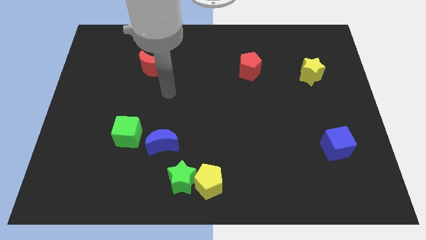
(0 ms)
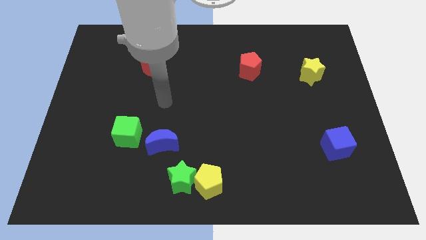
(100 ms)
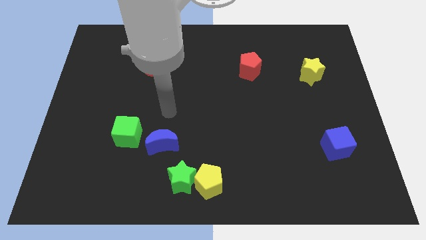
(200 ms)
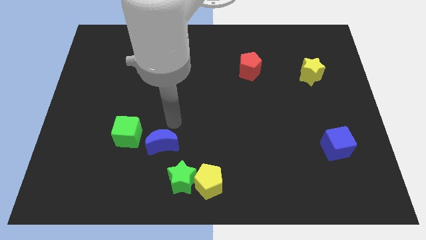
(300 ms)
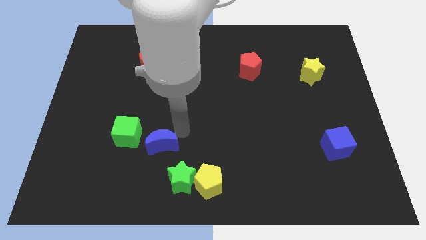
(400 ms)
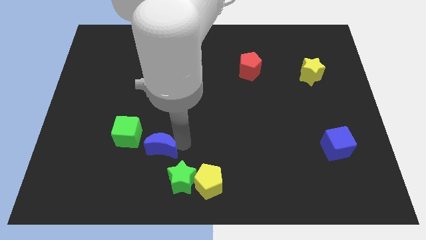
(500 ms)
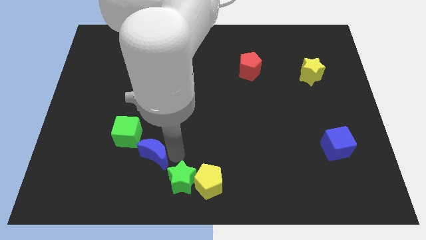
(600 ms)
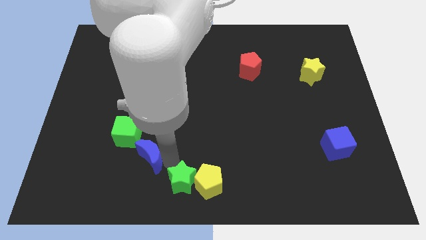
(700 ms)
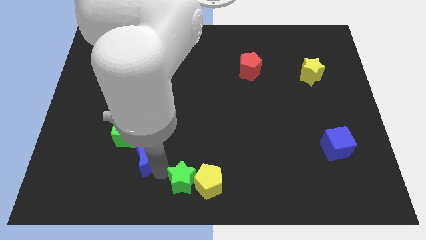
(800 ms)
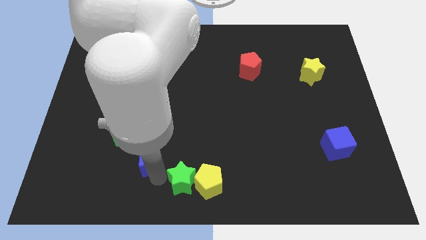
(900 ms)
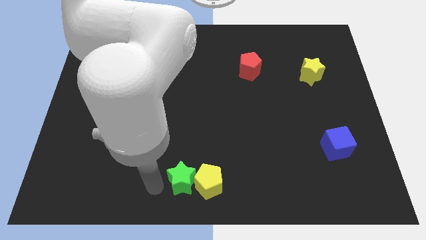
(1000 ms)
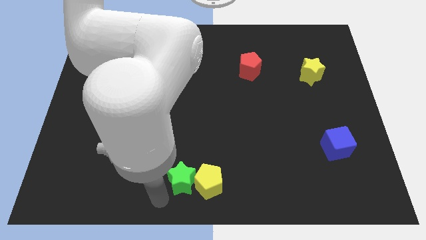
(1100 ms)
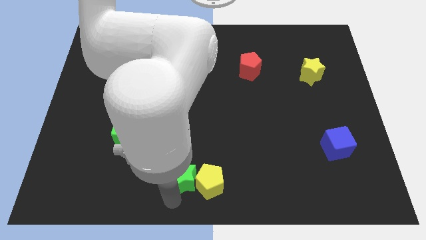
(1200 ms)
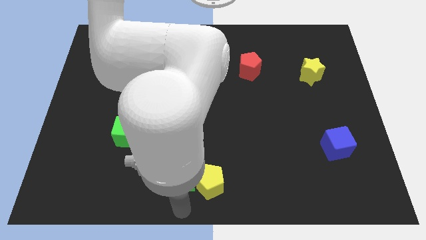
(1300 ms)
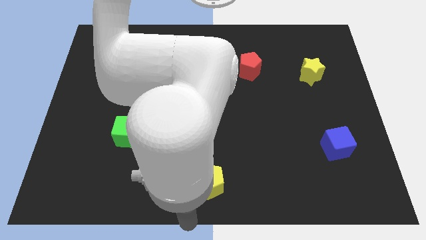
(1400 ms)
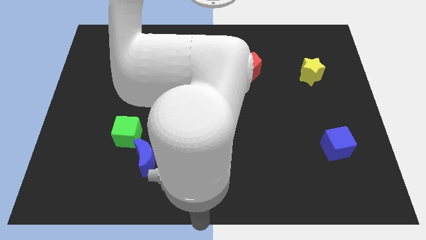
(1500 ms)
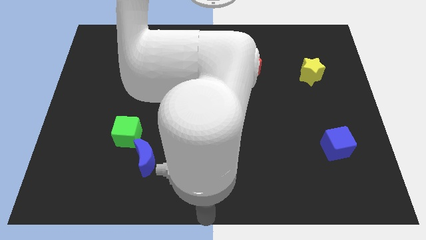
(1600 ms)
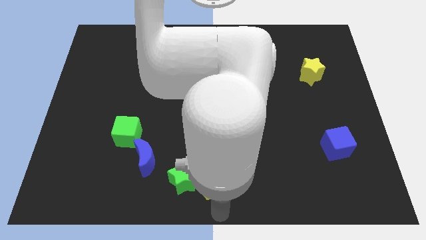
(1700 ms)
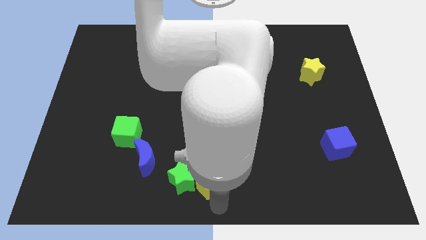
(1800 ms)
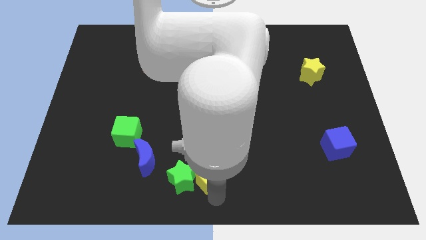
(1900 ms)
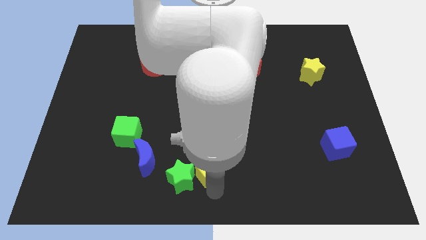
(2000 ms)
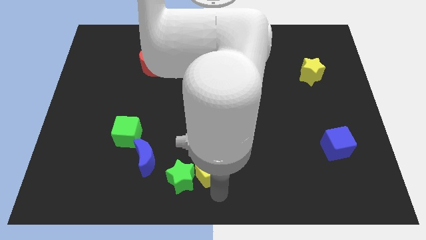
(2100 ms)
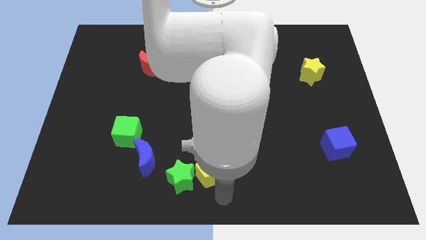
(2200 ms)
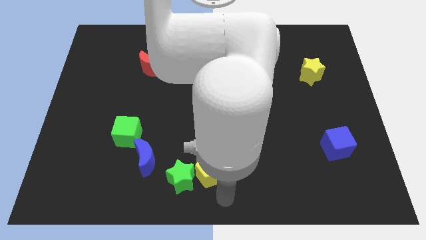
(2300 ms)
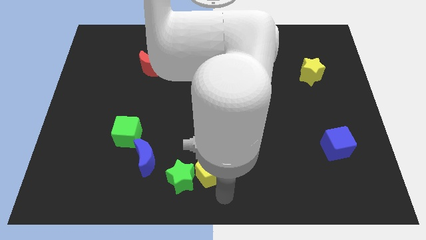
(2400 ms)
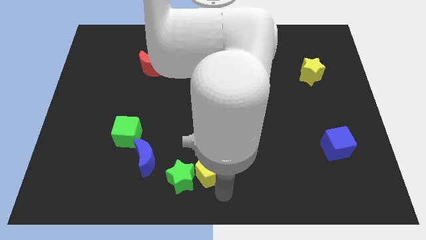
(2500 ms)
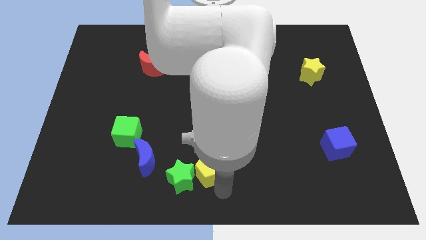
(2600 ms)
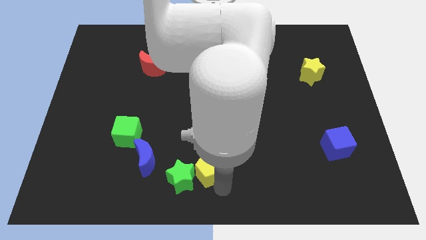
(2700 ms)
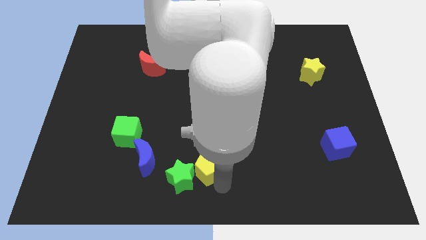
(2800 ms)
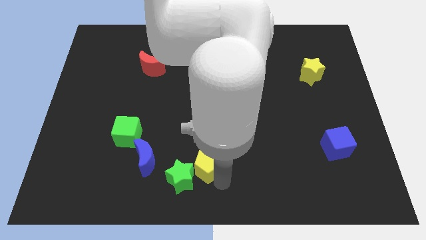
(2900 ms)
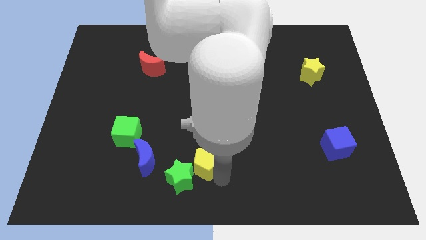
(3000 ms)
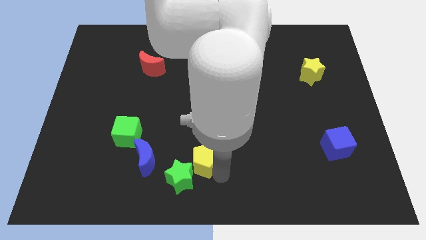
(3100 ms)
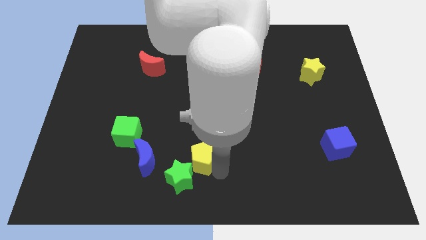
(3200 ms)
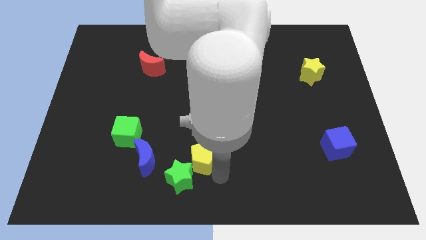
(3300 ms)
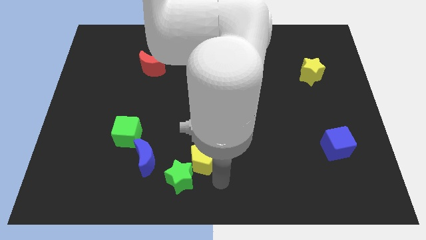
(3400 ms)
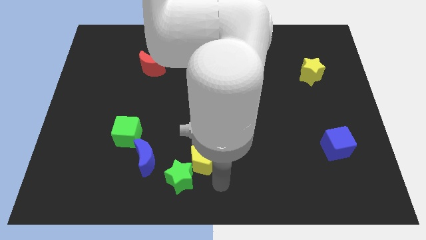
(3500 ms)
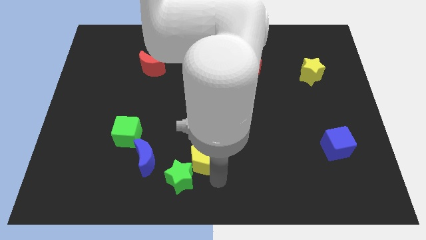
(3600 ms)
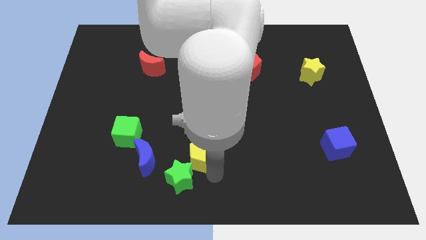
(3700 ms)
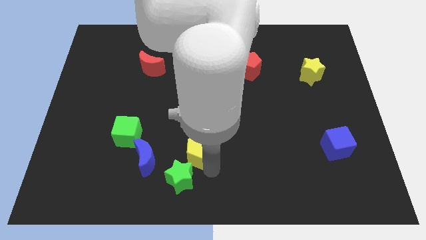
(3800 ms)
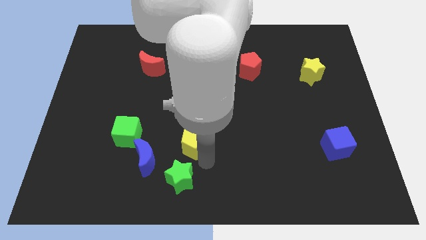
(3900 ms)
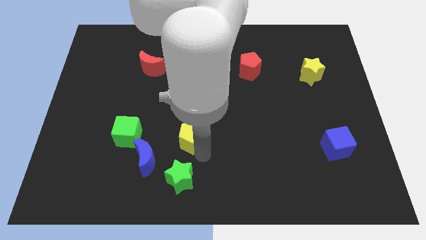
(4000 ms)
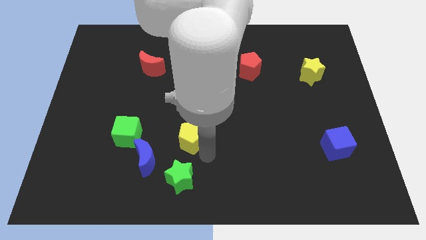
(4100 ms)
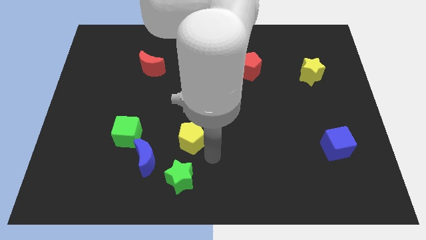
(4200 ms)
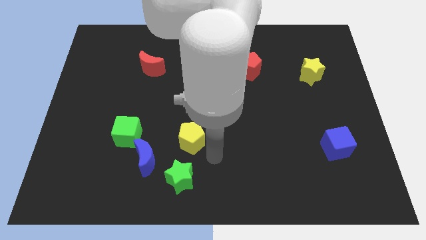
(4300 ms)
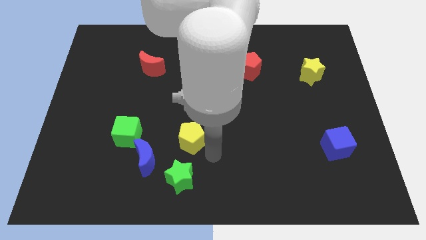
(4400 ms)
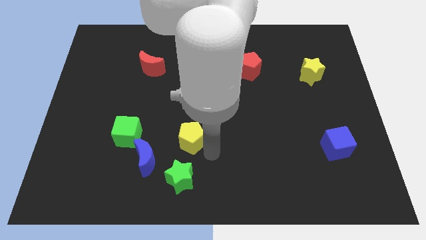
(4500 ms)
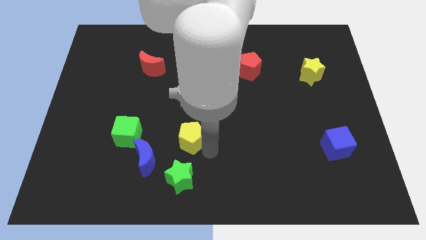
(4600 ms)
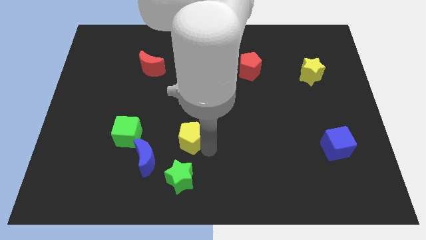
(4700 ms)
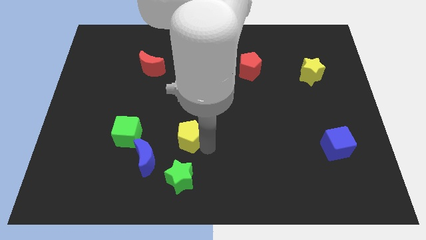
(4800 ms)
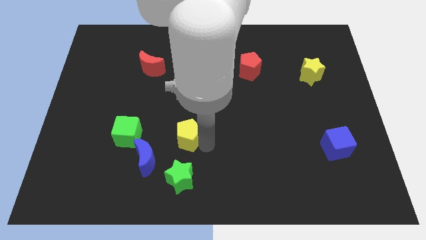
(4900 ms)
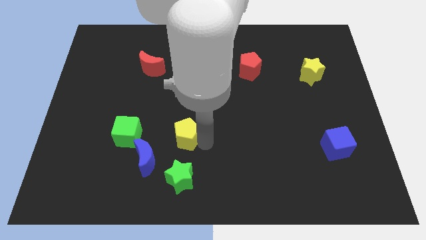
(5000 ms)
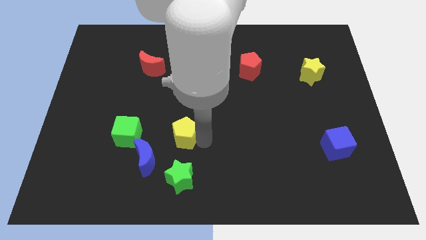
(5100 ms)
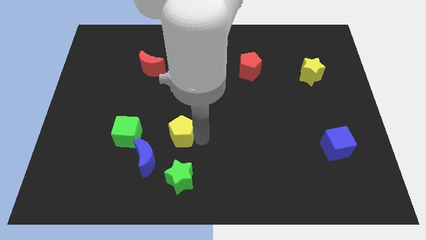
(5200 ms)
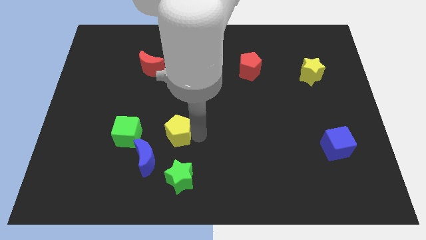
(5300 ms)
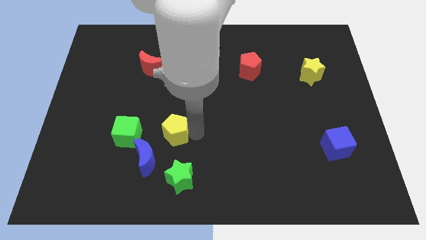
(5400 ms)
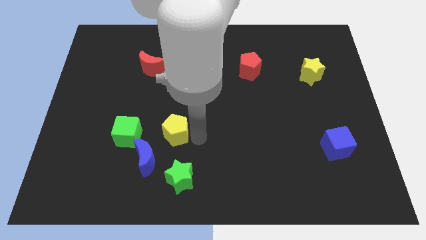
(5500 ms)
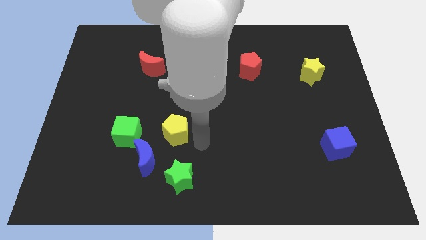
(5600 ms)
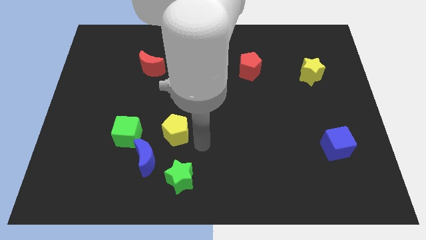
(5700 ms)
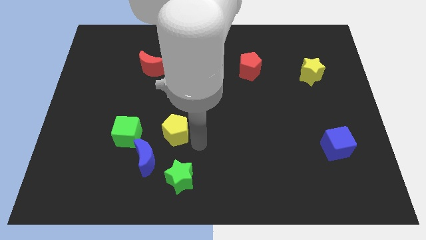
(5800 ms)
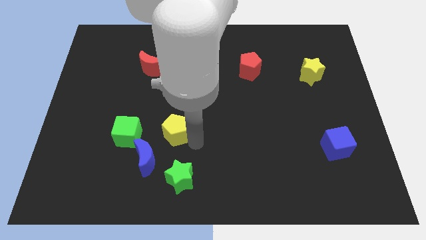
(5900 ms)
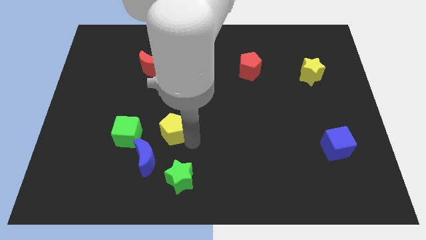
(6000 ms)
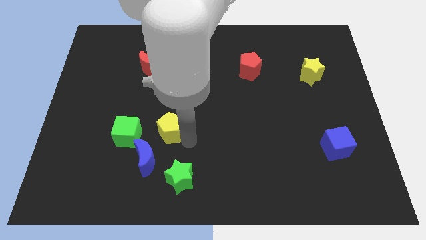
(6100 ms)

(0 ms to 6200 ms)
move the yellow pentagon above the blue moon

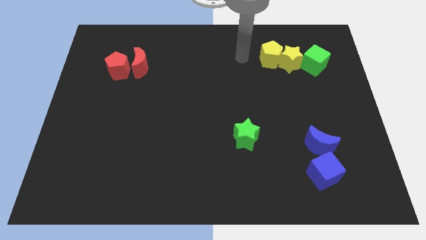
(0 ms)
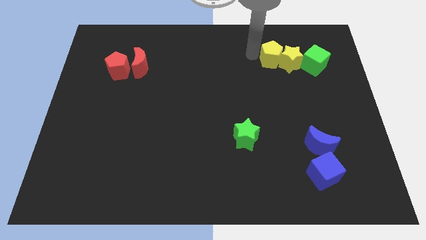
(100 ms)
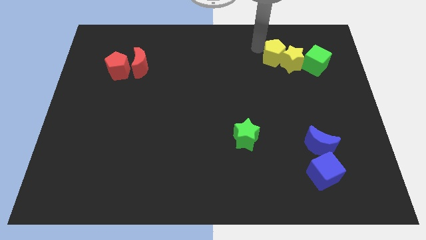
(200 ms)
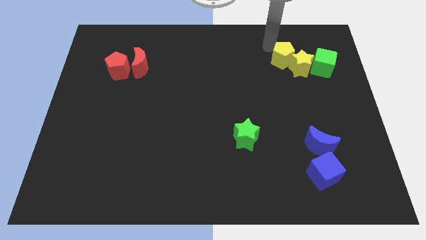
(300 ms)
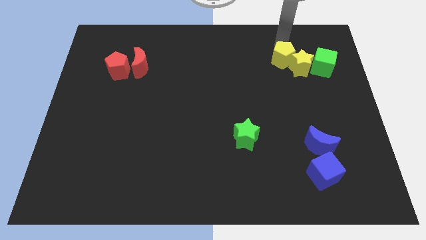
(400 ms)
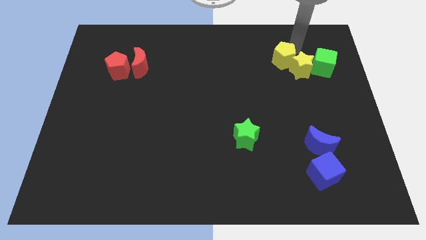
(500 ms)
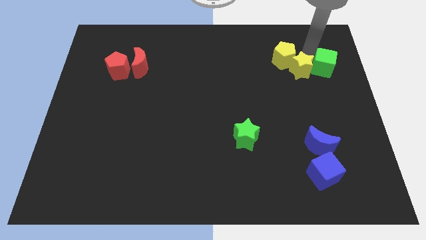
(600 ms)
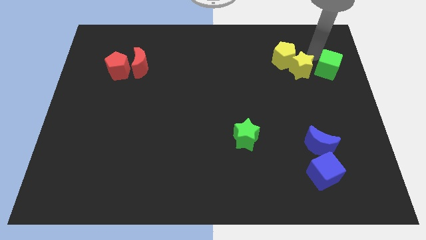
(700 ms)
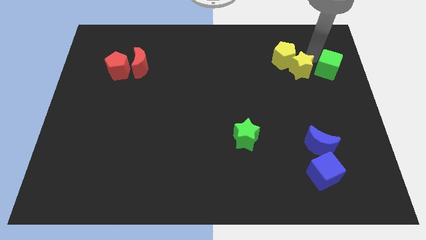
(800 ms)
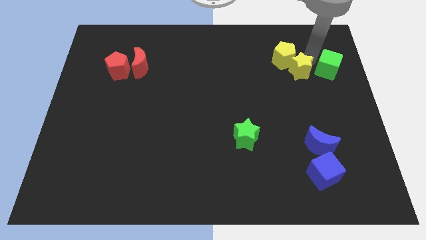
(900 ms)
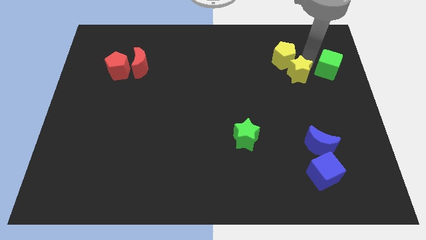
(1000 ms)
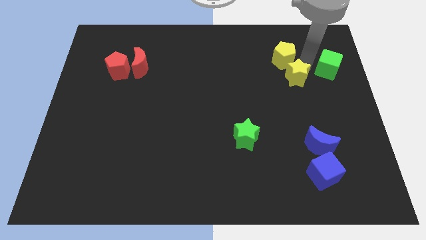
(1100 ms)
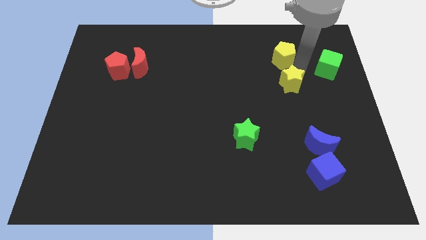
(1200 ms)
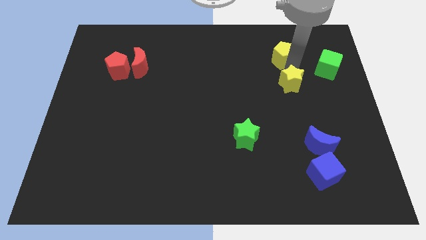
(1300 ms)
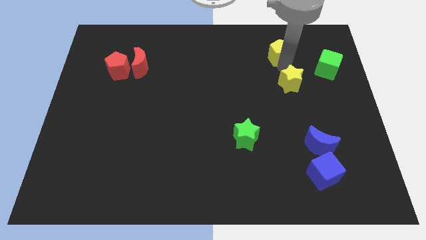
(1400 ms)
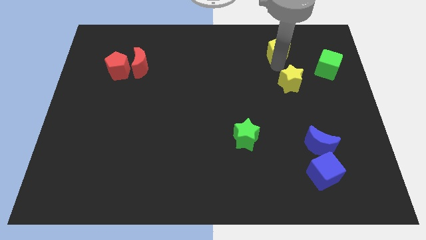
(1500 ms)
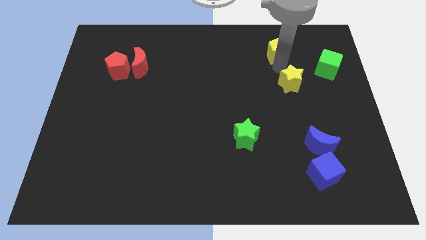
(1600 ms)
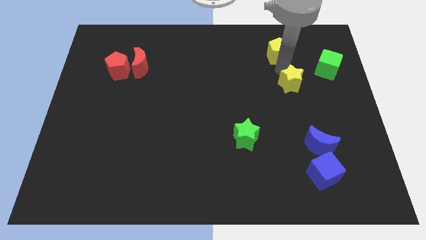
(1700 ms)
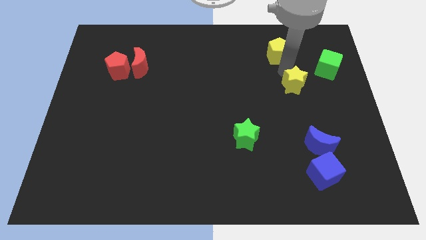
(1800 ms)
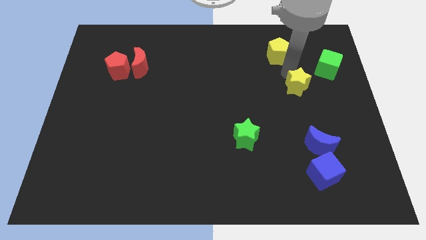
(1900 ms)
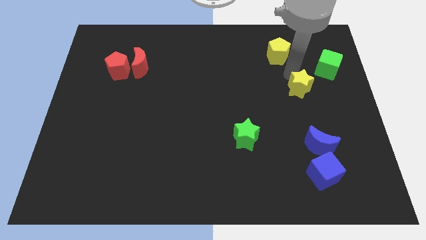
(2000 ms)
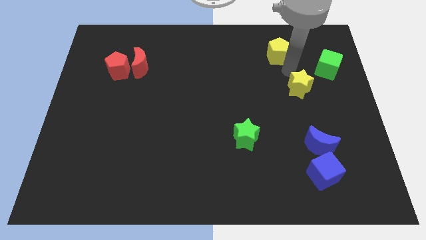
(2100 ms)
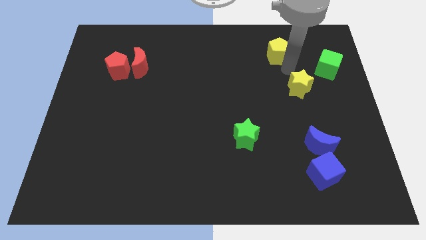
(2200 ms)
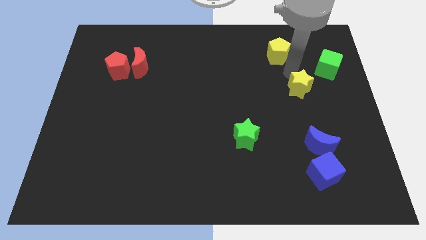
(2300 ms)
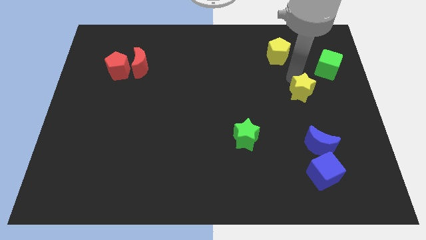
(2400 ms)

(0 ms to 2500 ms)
move the yellow star above the blue moon
